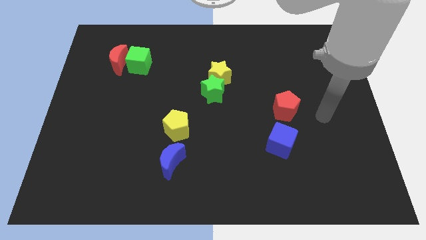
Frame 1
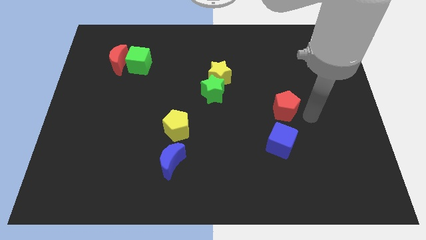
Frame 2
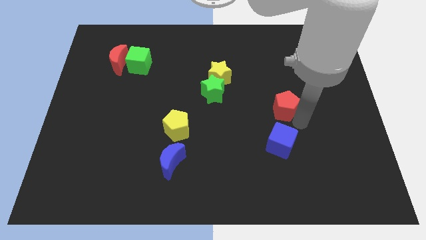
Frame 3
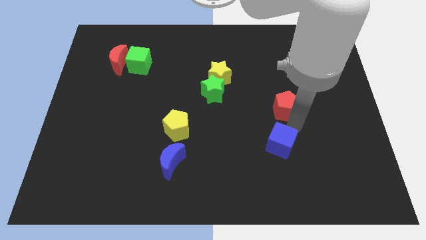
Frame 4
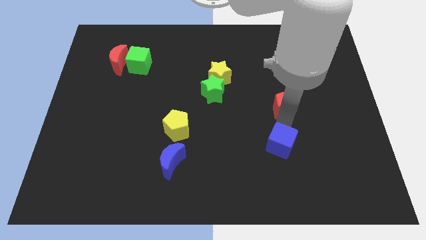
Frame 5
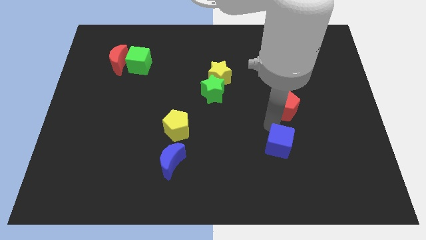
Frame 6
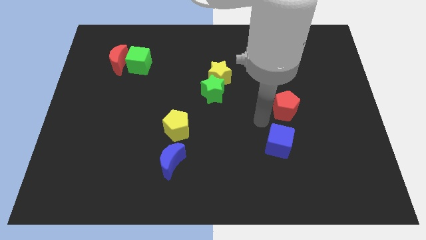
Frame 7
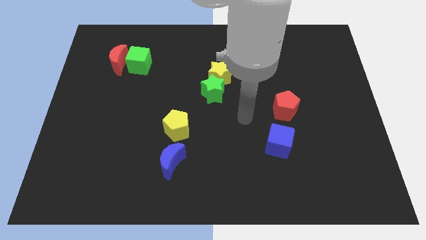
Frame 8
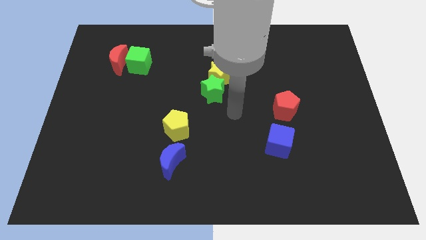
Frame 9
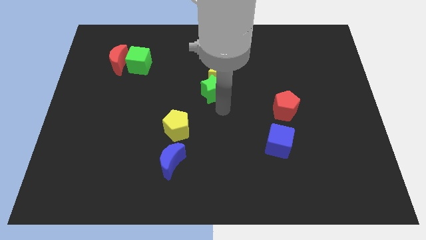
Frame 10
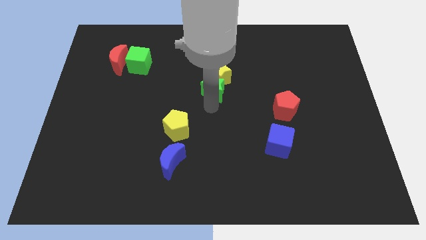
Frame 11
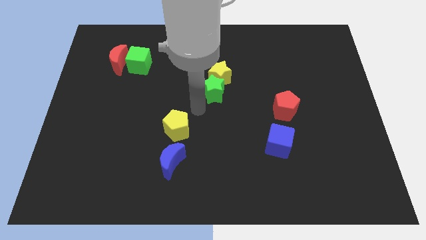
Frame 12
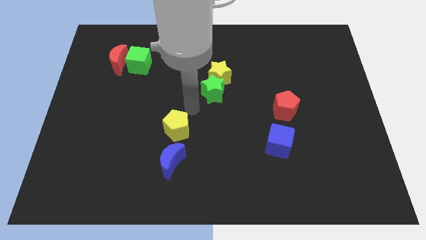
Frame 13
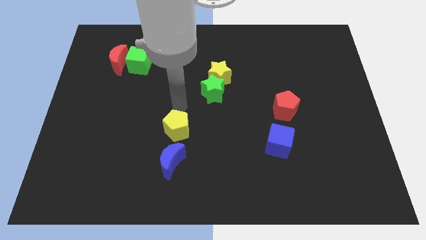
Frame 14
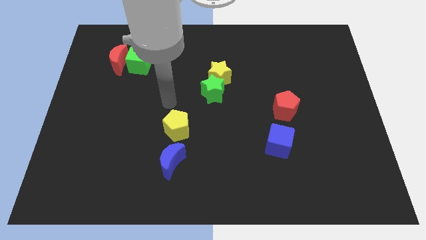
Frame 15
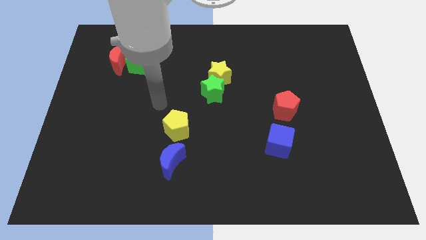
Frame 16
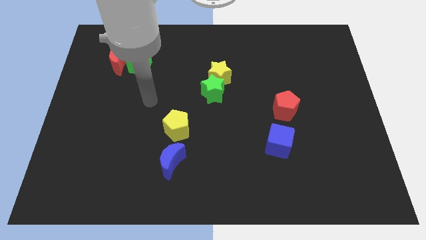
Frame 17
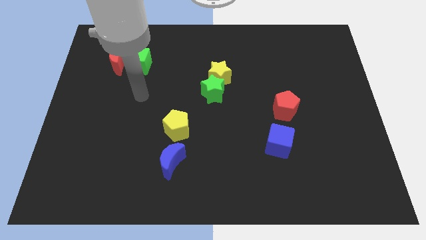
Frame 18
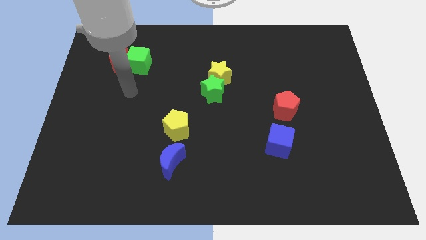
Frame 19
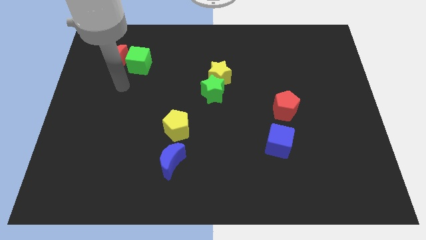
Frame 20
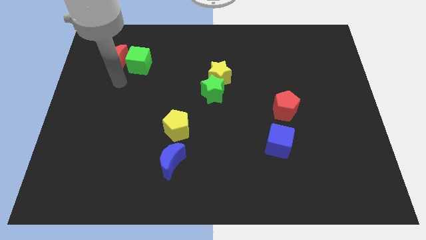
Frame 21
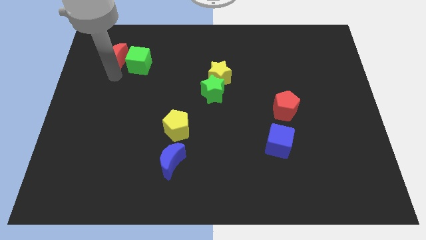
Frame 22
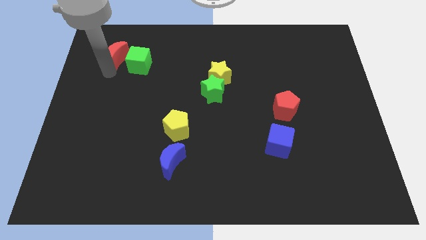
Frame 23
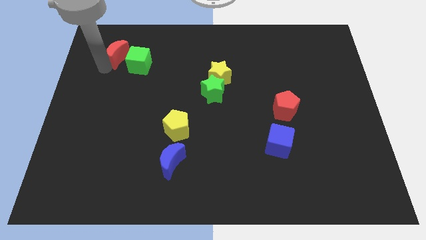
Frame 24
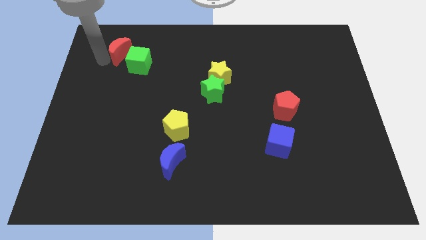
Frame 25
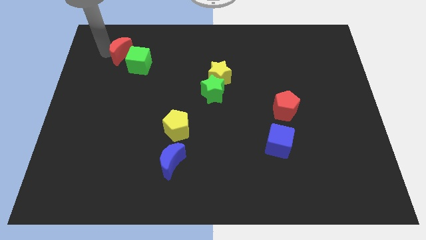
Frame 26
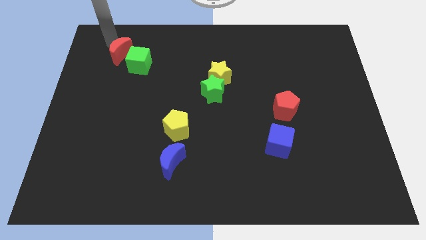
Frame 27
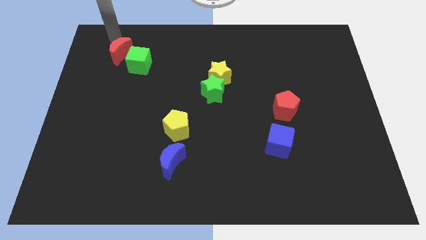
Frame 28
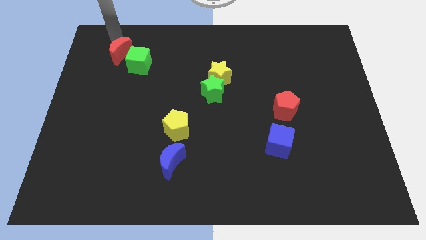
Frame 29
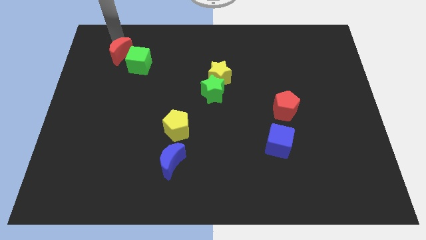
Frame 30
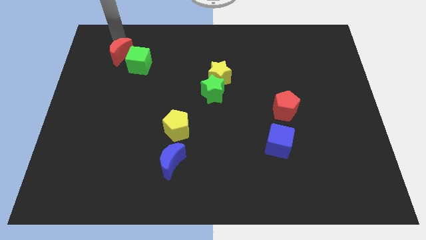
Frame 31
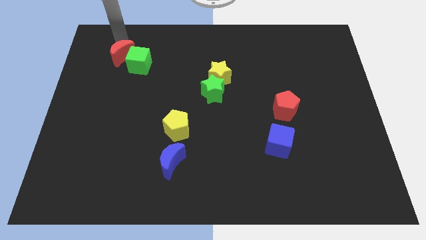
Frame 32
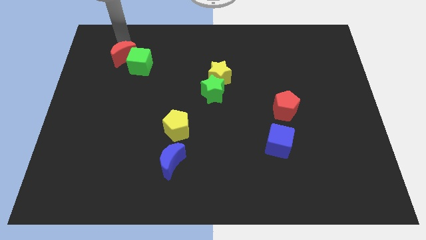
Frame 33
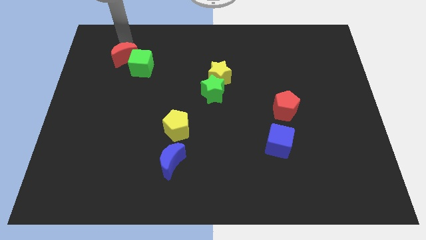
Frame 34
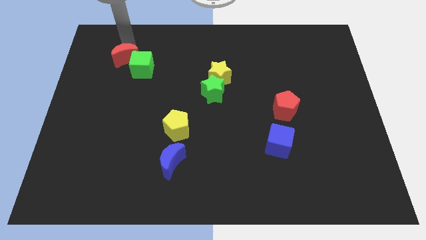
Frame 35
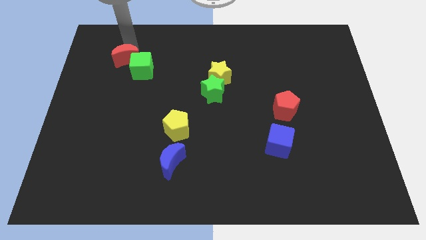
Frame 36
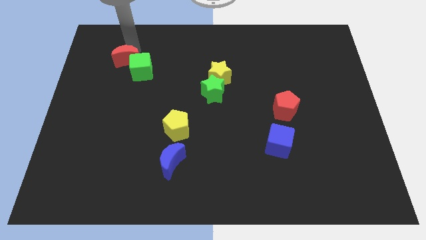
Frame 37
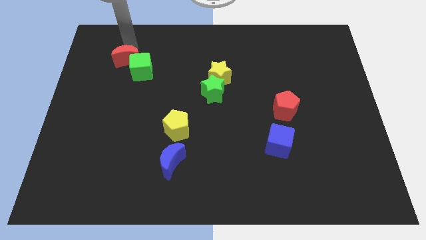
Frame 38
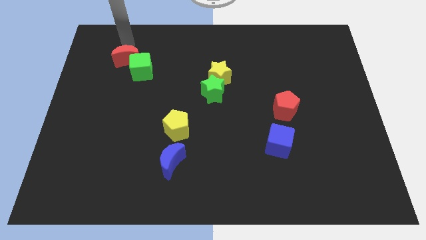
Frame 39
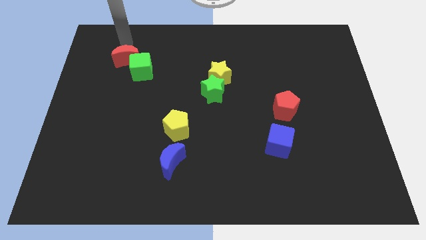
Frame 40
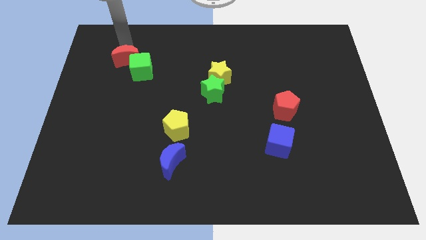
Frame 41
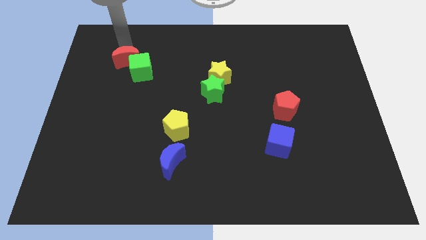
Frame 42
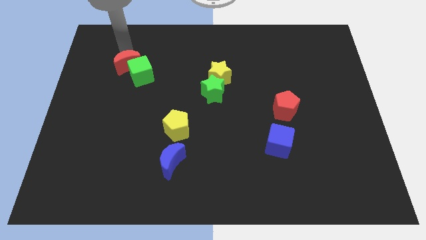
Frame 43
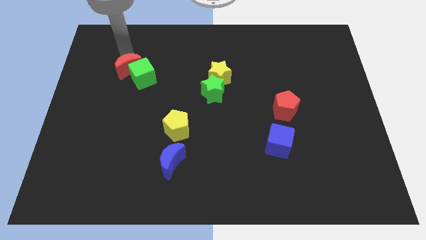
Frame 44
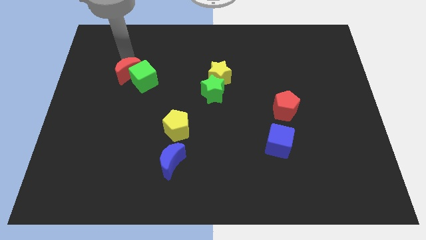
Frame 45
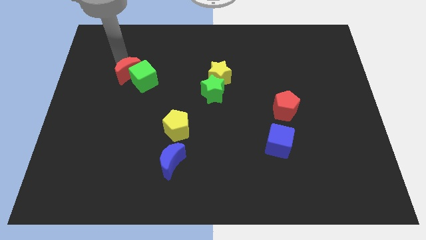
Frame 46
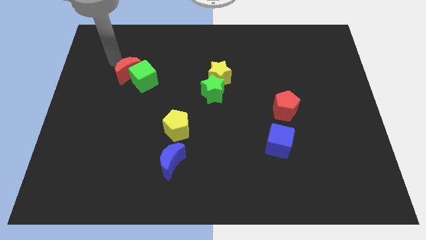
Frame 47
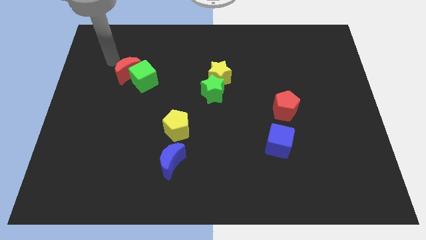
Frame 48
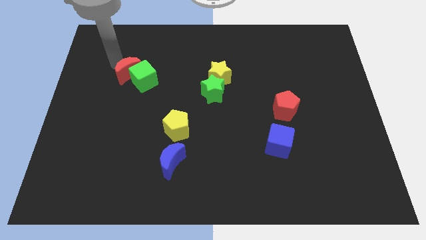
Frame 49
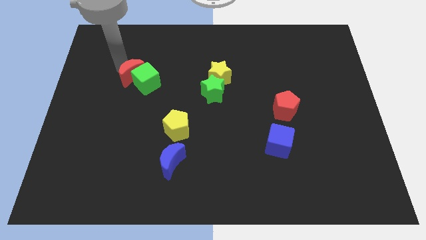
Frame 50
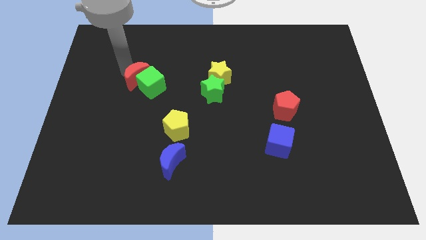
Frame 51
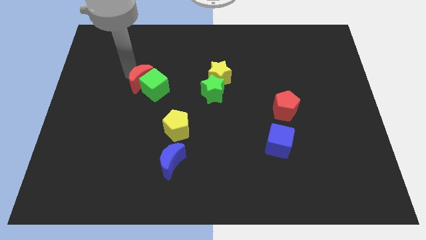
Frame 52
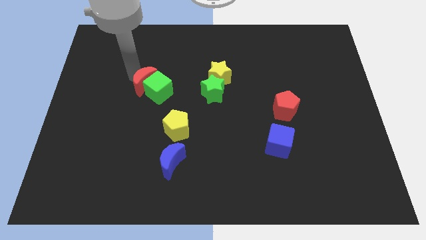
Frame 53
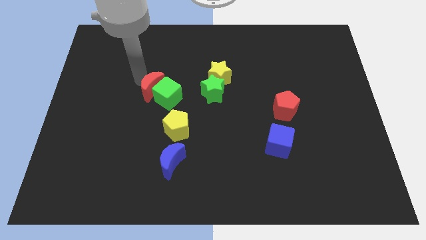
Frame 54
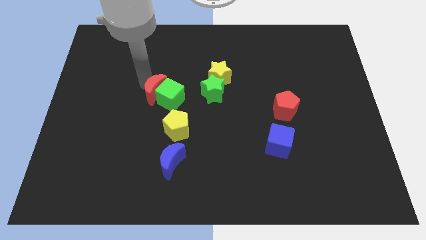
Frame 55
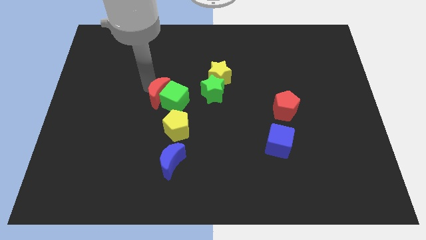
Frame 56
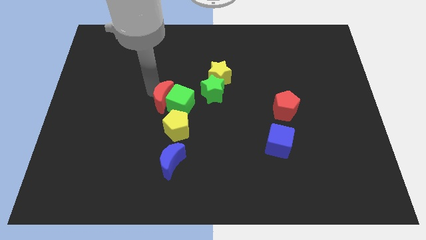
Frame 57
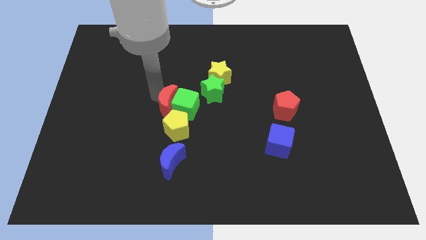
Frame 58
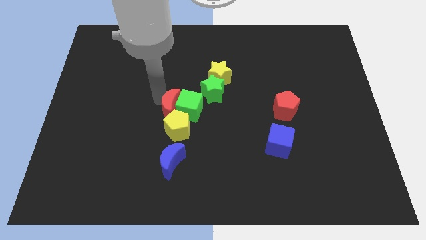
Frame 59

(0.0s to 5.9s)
slide the red moon diagonally downwards and right

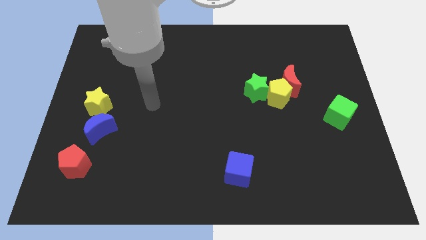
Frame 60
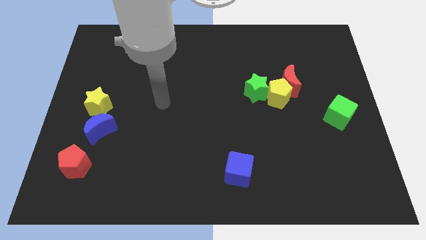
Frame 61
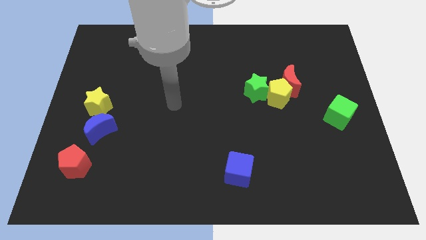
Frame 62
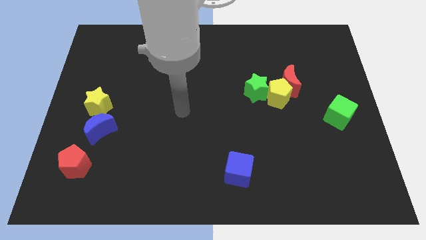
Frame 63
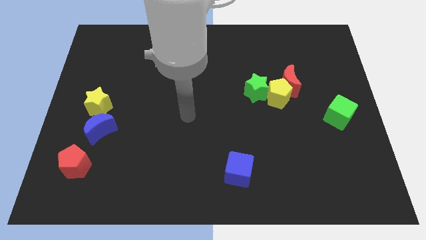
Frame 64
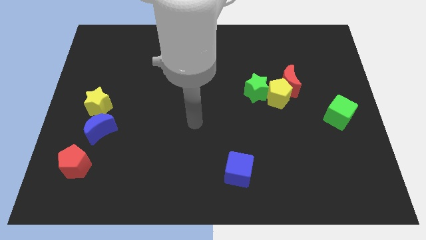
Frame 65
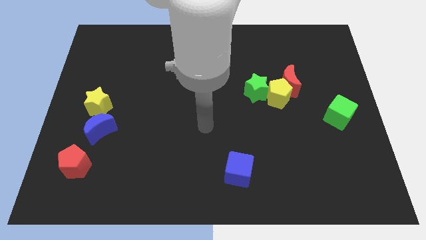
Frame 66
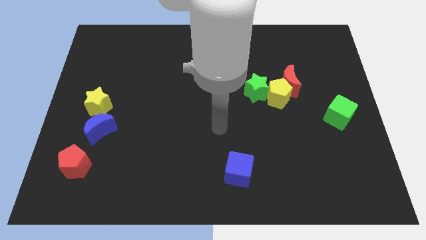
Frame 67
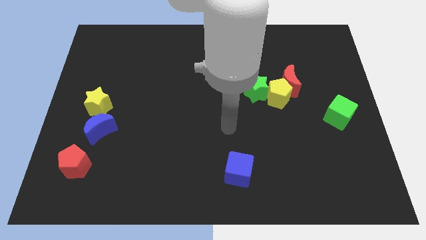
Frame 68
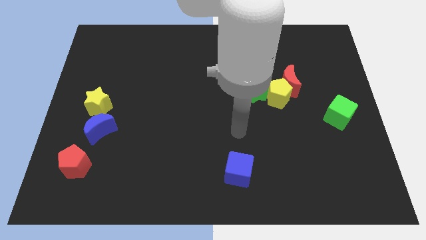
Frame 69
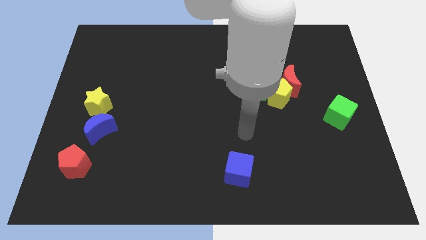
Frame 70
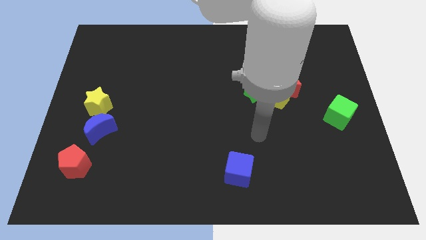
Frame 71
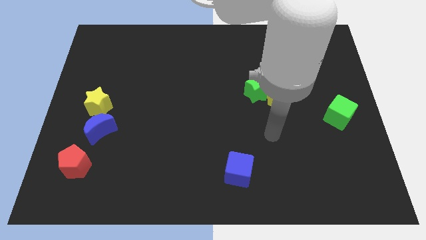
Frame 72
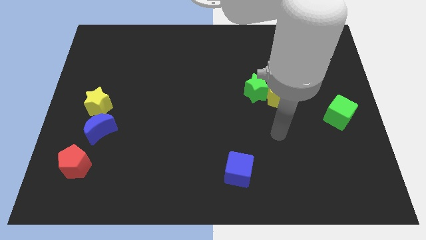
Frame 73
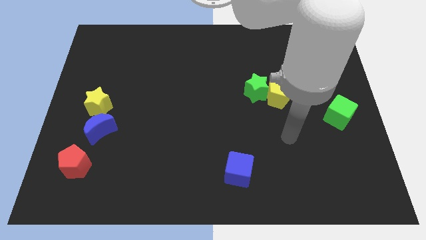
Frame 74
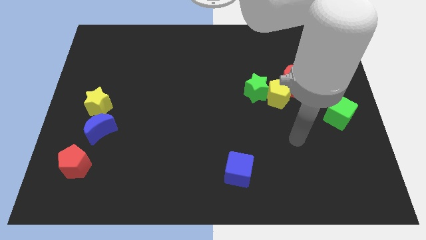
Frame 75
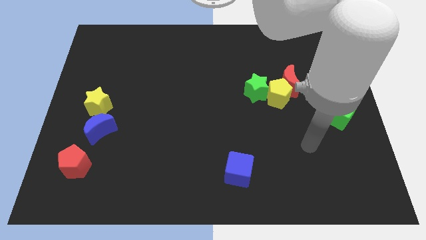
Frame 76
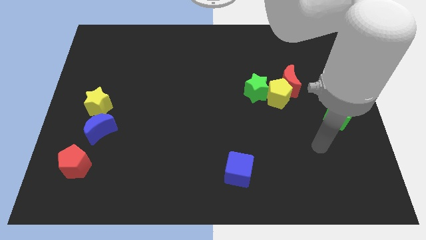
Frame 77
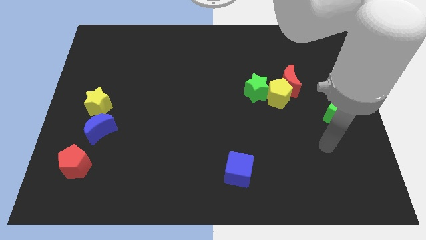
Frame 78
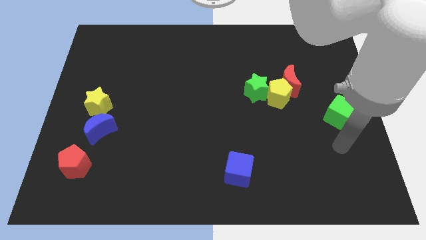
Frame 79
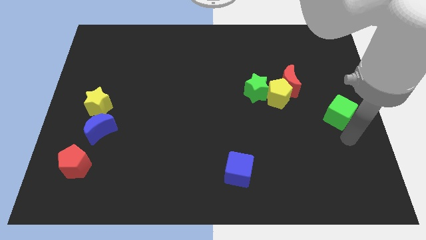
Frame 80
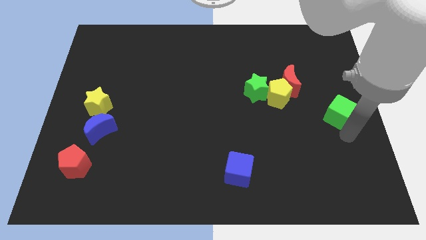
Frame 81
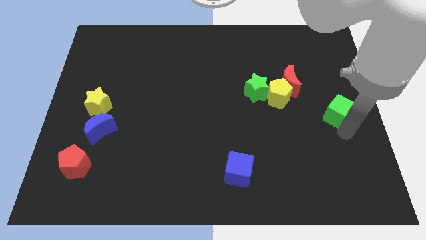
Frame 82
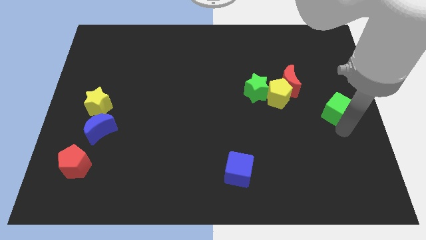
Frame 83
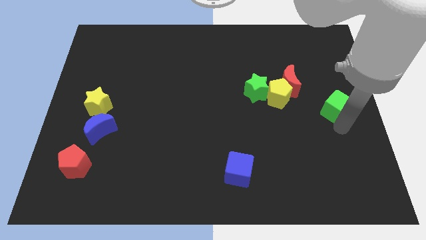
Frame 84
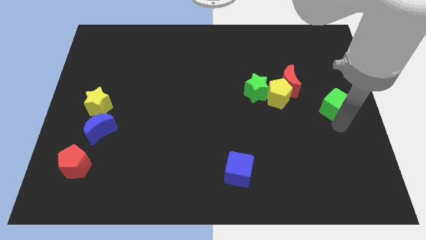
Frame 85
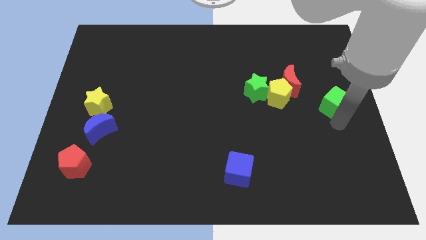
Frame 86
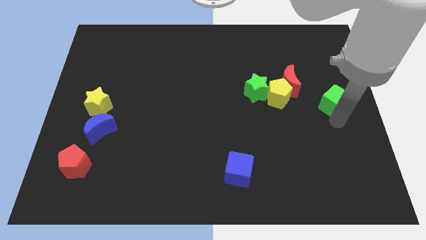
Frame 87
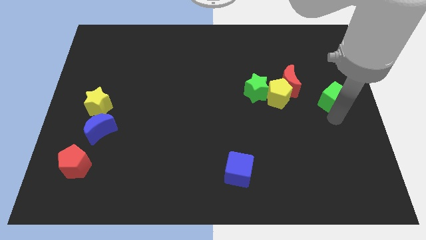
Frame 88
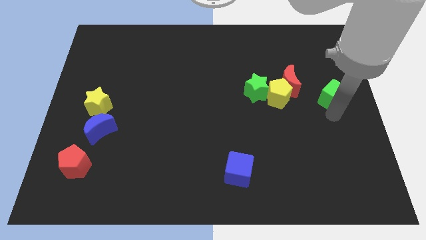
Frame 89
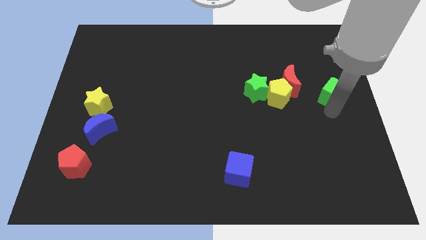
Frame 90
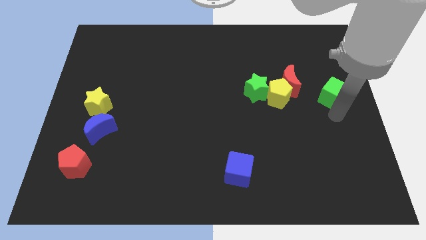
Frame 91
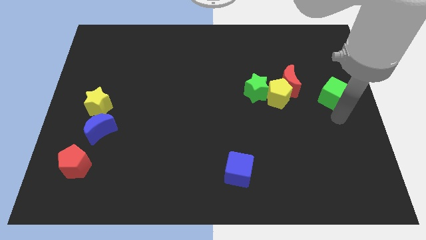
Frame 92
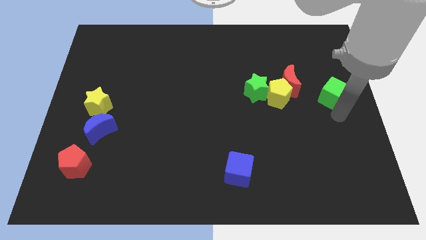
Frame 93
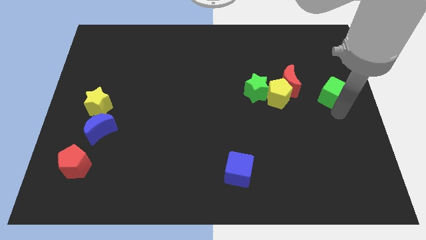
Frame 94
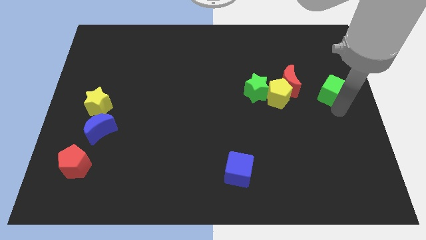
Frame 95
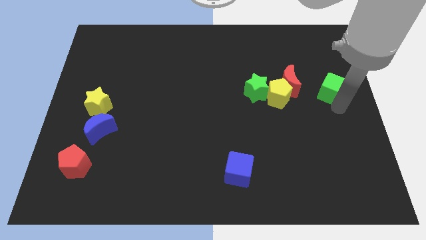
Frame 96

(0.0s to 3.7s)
move the green cube a little bit upwards
